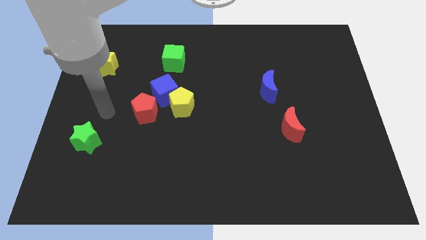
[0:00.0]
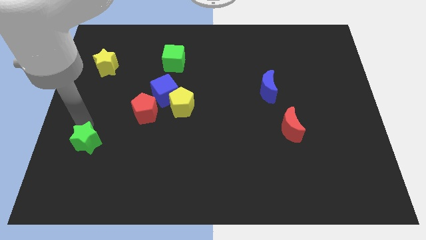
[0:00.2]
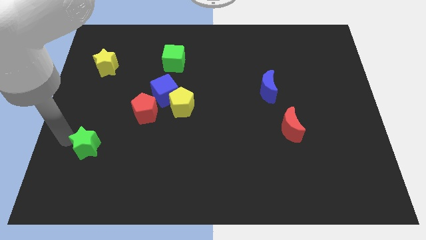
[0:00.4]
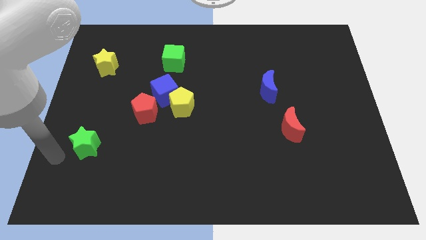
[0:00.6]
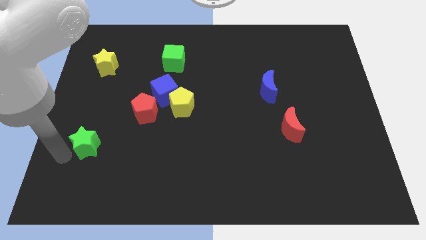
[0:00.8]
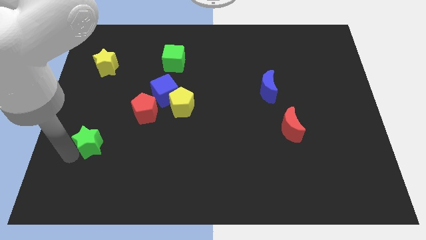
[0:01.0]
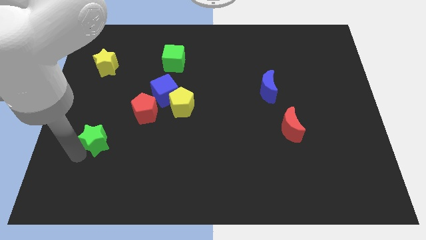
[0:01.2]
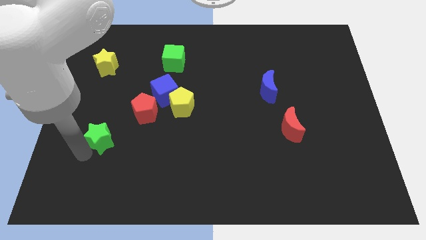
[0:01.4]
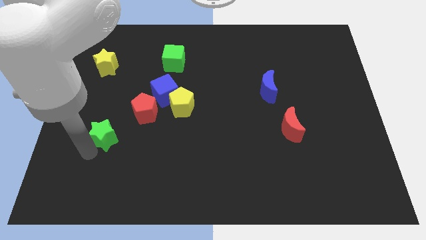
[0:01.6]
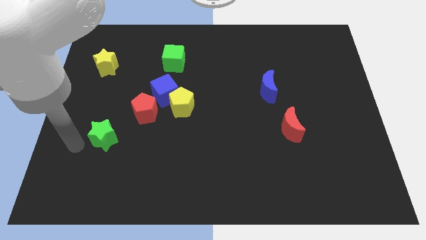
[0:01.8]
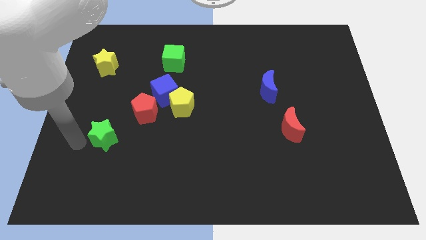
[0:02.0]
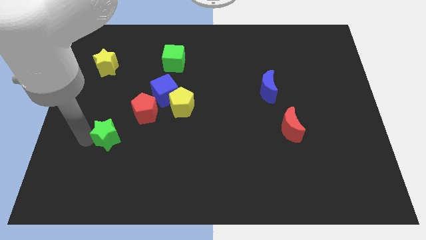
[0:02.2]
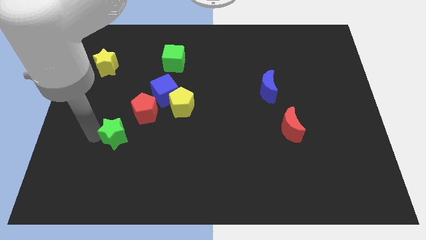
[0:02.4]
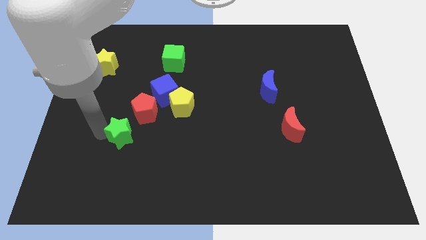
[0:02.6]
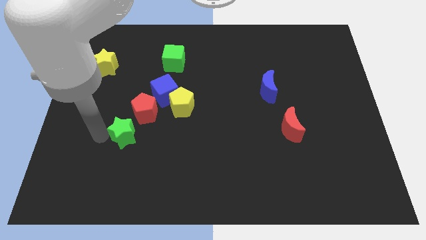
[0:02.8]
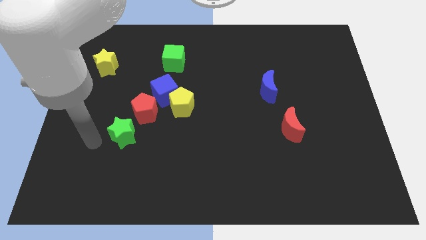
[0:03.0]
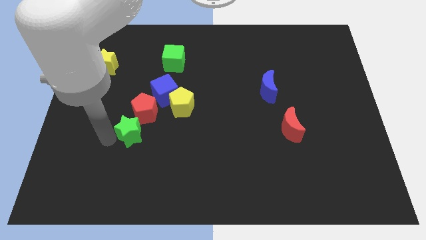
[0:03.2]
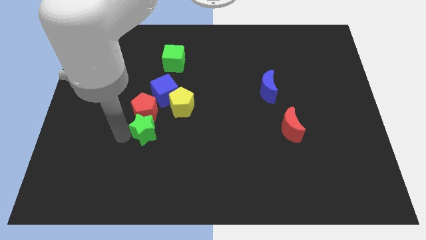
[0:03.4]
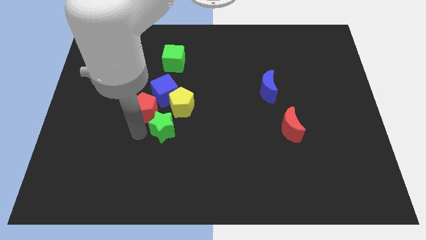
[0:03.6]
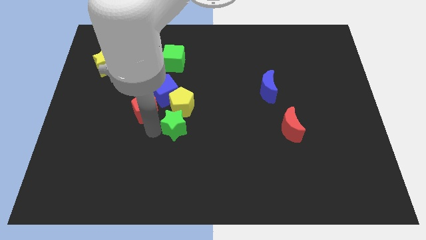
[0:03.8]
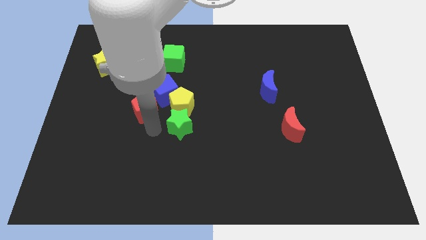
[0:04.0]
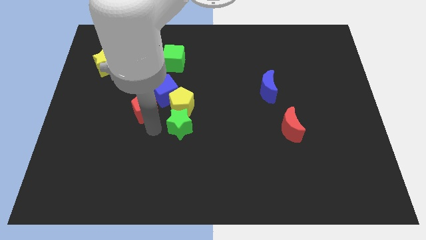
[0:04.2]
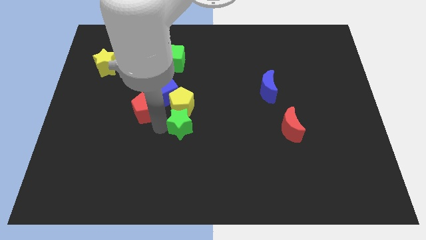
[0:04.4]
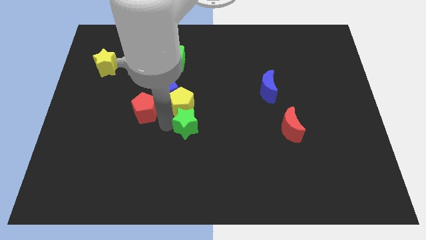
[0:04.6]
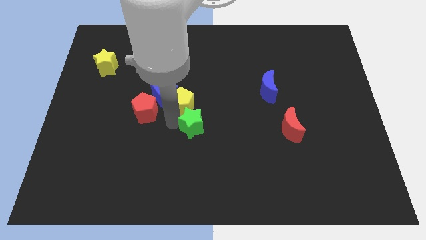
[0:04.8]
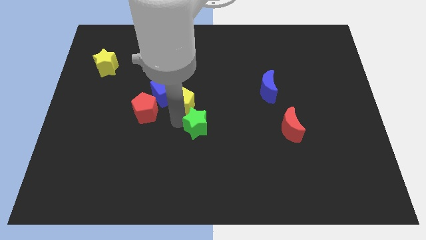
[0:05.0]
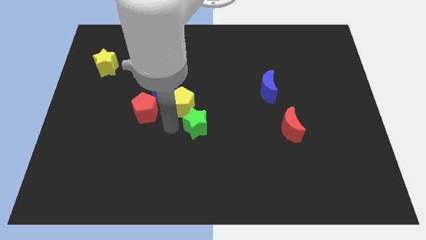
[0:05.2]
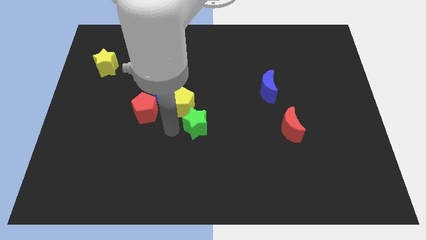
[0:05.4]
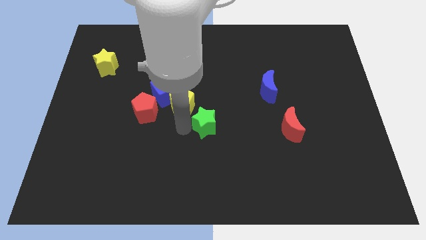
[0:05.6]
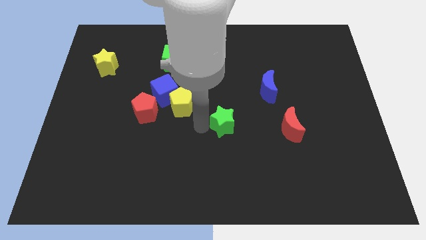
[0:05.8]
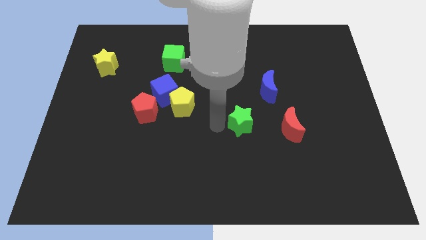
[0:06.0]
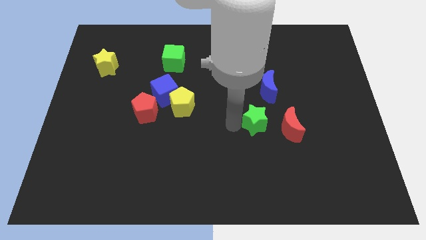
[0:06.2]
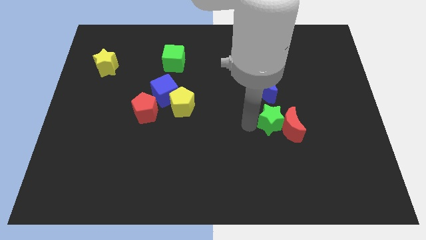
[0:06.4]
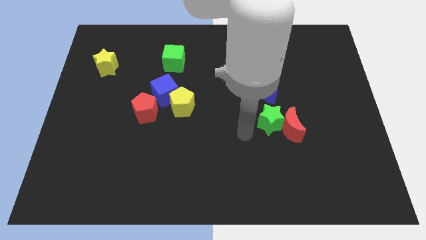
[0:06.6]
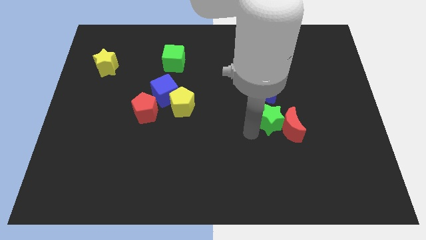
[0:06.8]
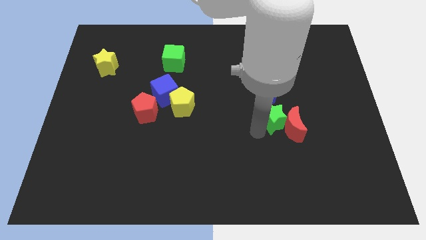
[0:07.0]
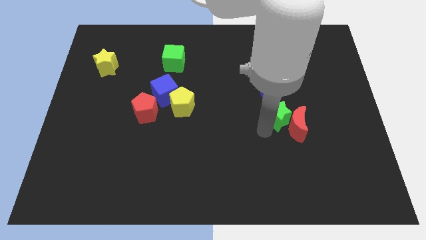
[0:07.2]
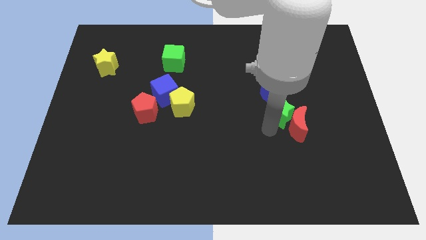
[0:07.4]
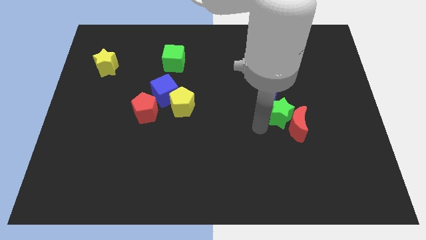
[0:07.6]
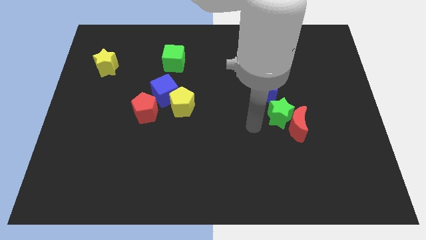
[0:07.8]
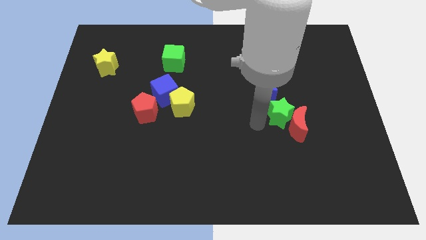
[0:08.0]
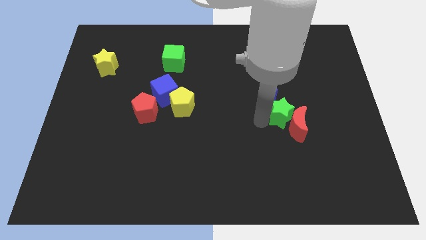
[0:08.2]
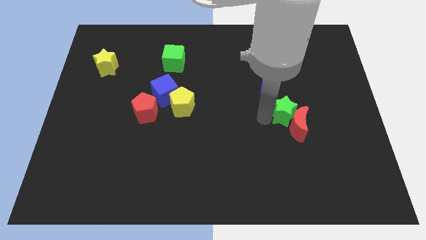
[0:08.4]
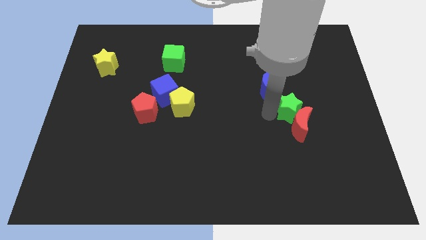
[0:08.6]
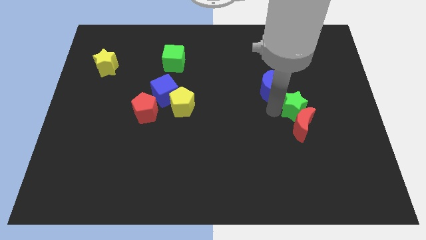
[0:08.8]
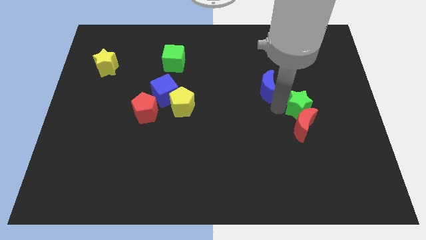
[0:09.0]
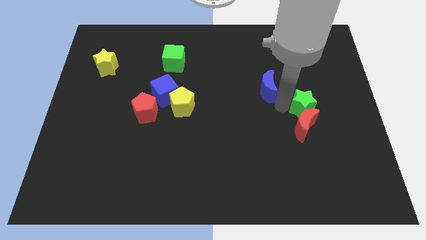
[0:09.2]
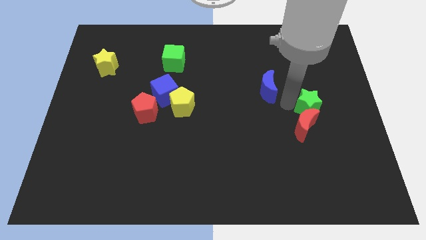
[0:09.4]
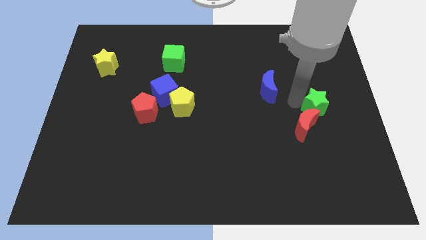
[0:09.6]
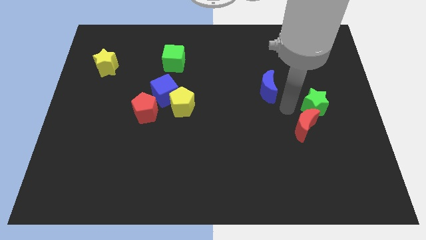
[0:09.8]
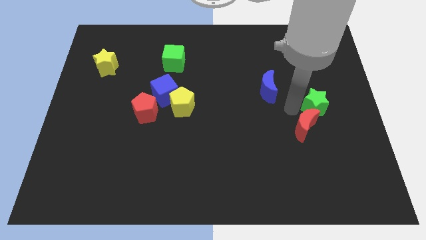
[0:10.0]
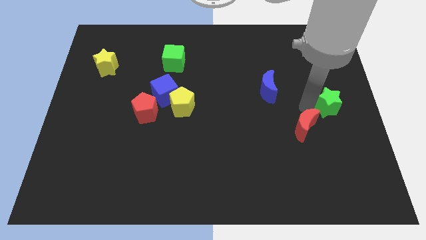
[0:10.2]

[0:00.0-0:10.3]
slide the green star to the right side of the board

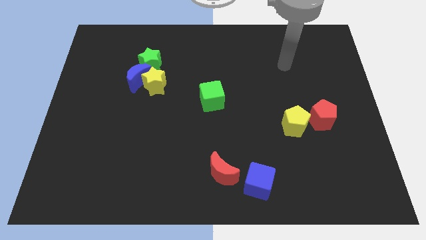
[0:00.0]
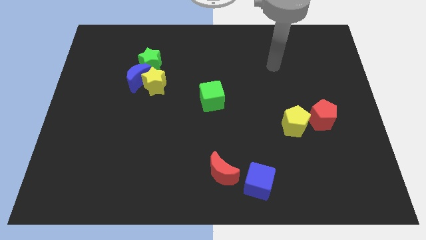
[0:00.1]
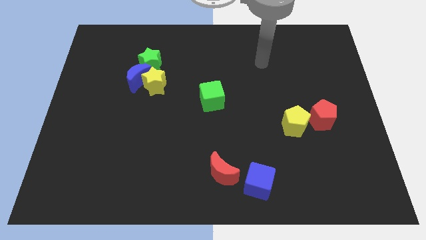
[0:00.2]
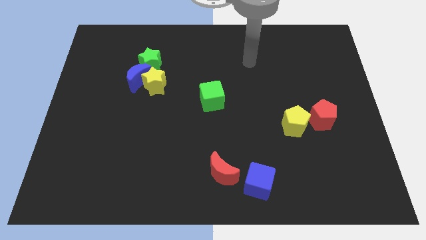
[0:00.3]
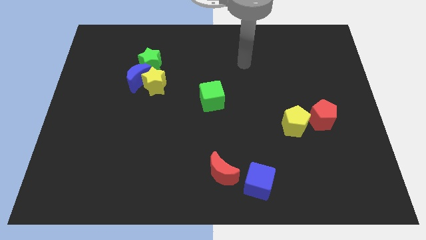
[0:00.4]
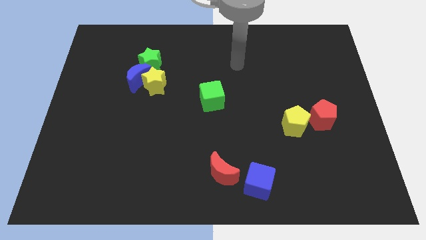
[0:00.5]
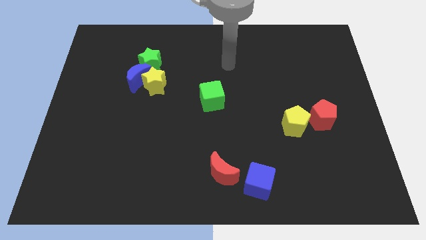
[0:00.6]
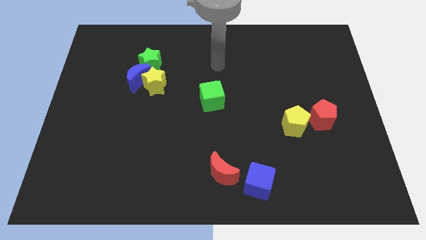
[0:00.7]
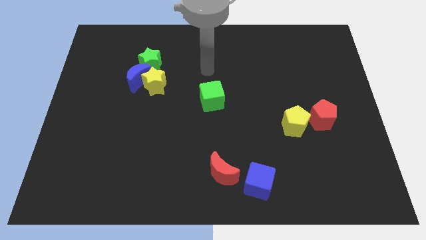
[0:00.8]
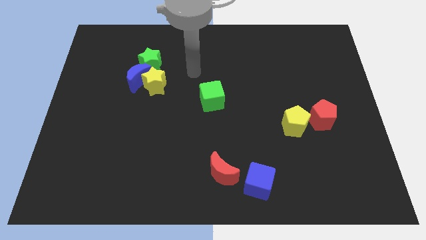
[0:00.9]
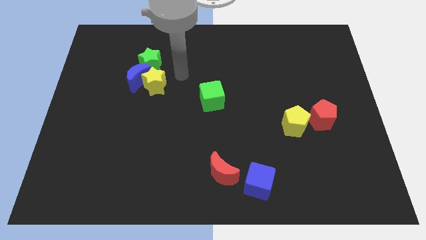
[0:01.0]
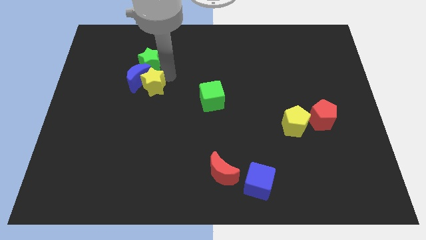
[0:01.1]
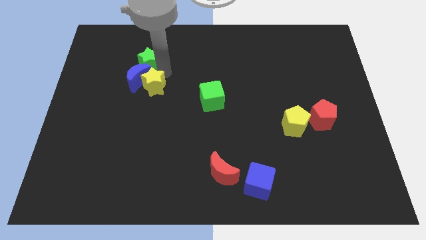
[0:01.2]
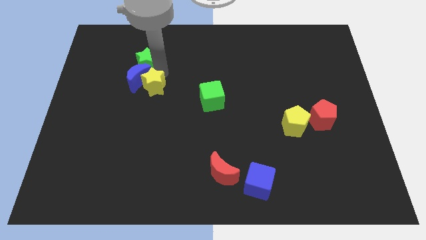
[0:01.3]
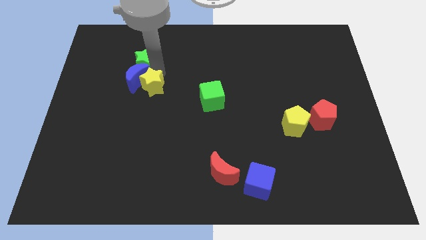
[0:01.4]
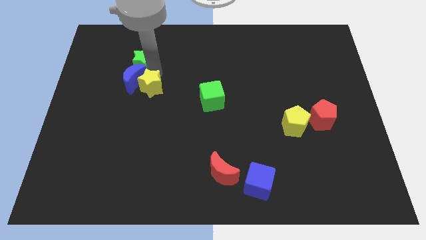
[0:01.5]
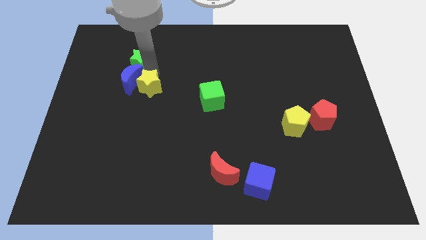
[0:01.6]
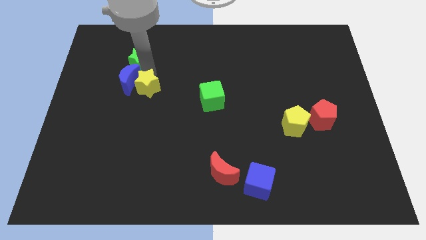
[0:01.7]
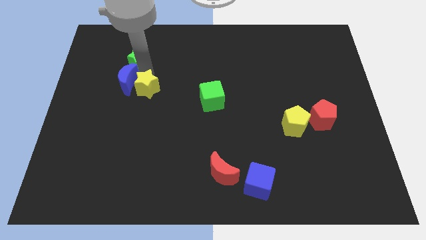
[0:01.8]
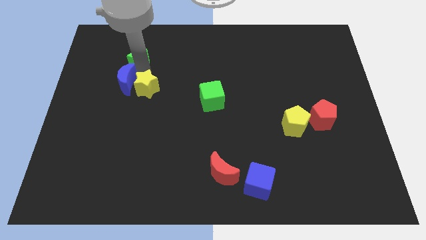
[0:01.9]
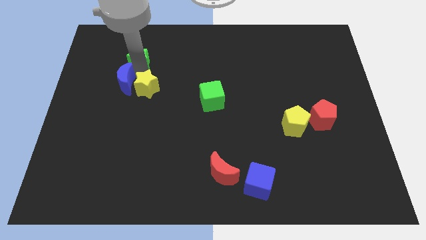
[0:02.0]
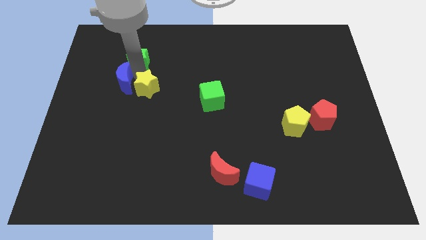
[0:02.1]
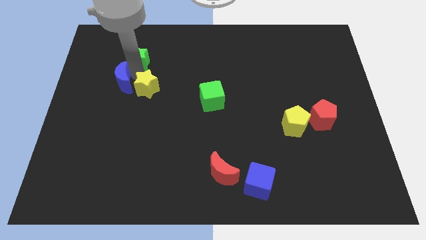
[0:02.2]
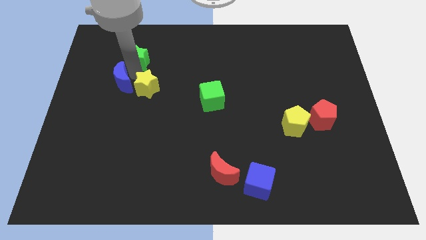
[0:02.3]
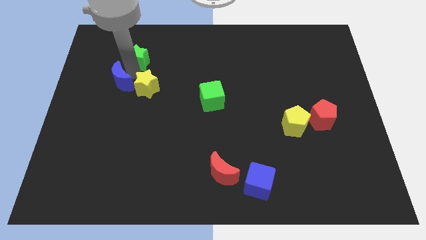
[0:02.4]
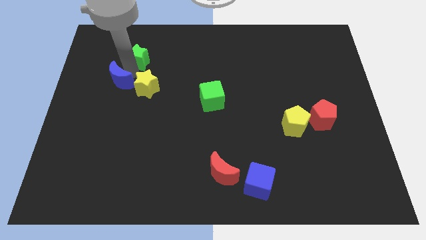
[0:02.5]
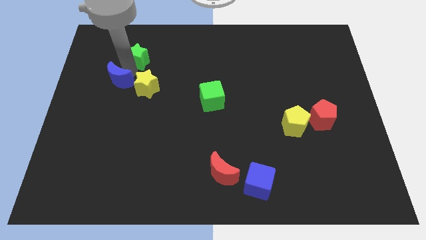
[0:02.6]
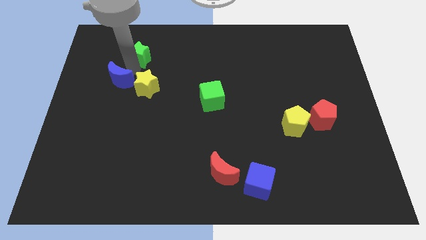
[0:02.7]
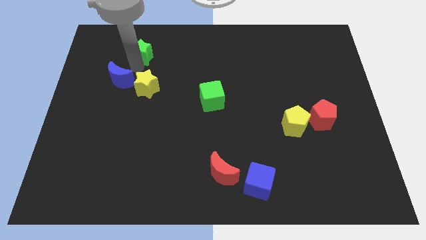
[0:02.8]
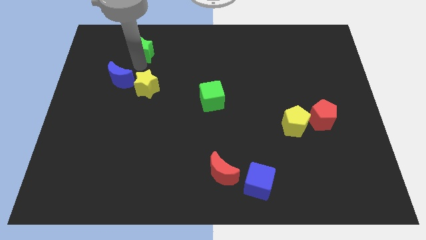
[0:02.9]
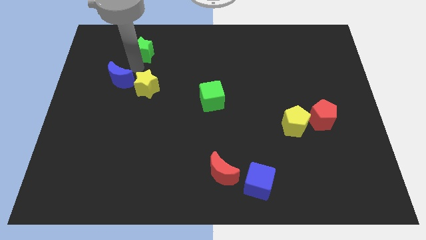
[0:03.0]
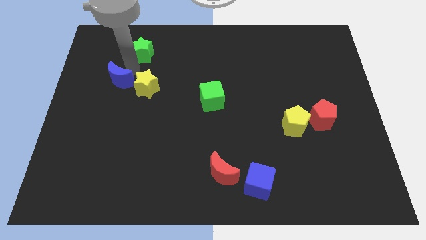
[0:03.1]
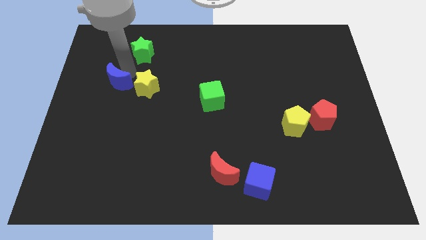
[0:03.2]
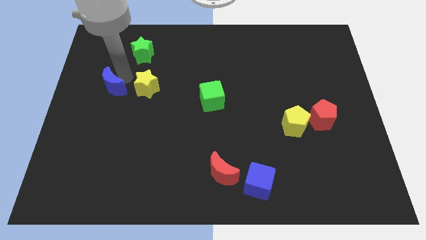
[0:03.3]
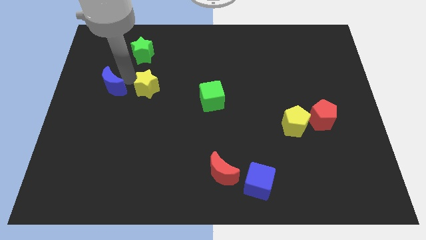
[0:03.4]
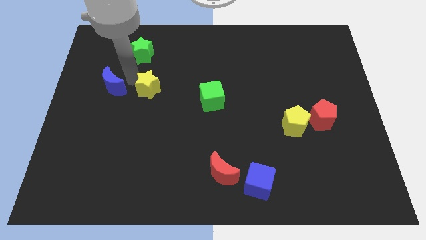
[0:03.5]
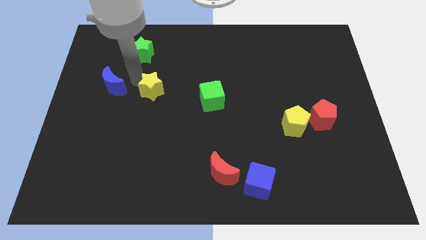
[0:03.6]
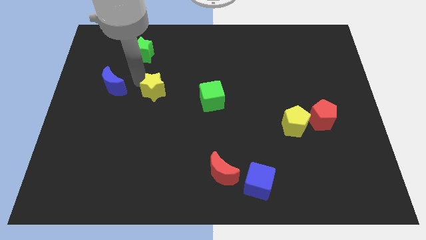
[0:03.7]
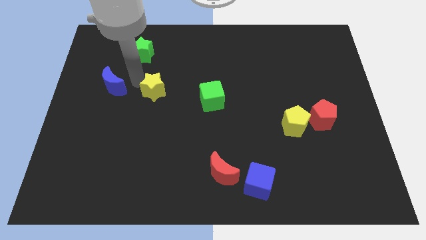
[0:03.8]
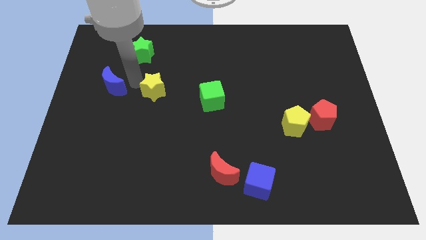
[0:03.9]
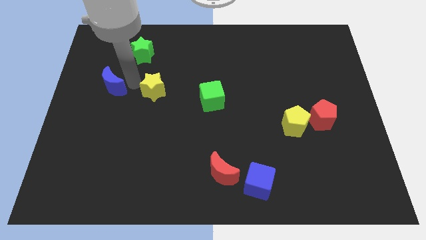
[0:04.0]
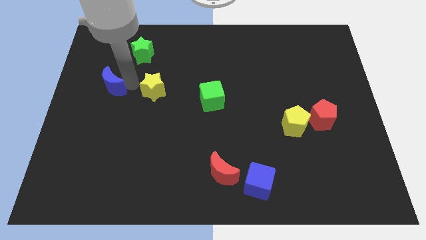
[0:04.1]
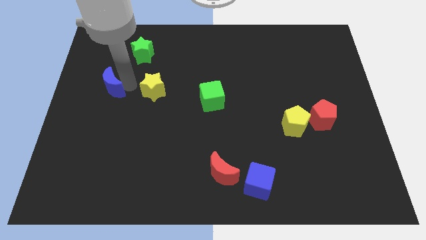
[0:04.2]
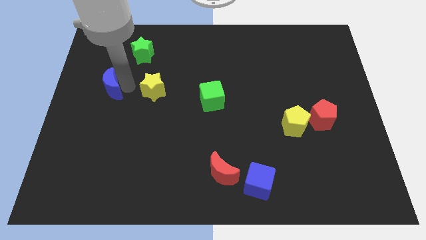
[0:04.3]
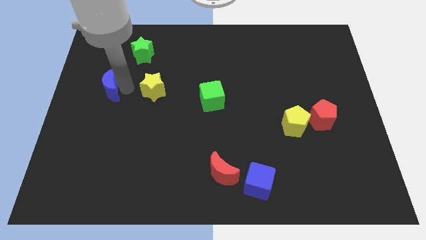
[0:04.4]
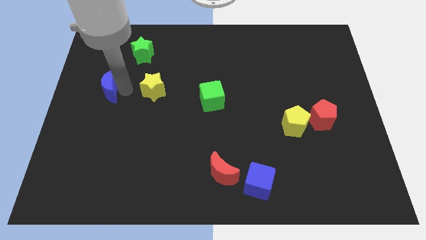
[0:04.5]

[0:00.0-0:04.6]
put the blue moon to the left side
